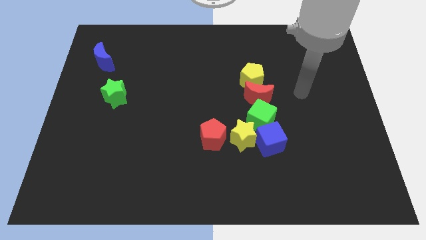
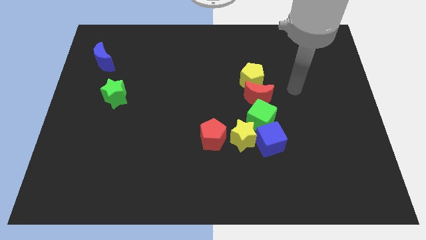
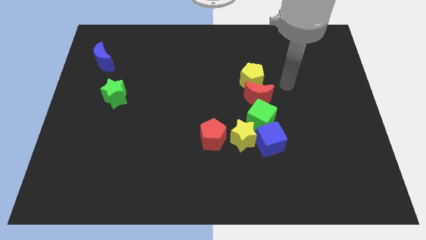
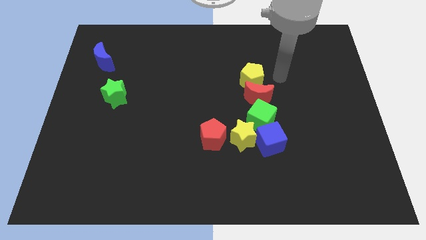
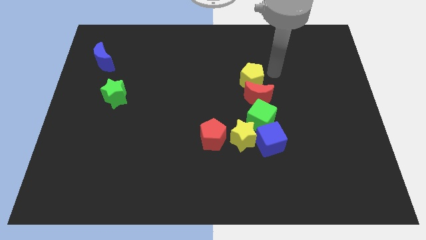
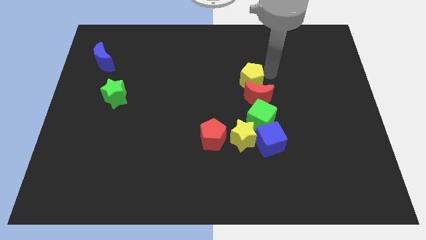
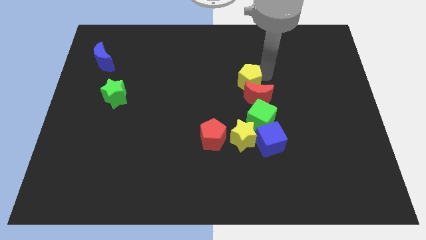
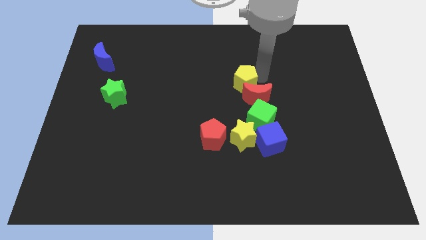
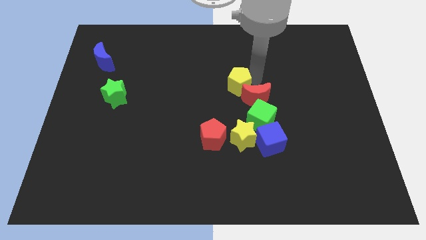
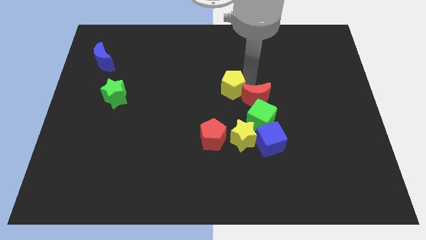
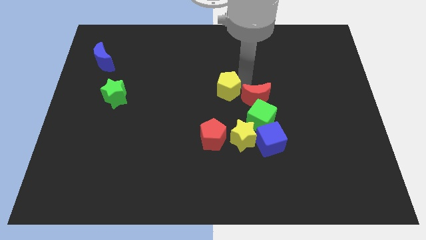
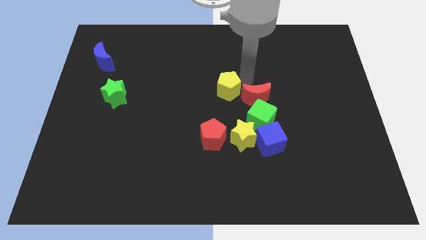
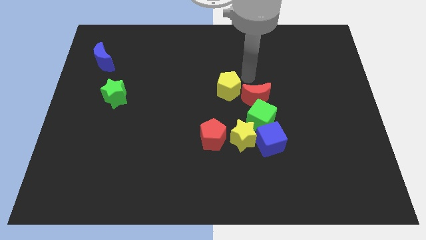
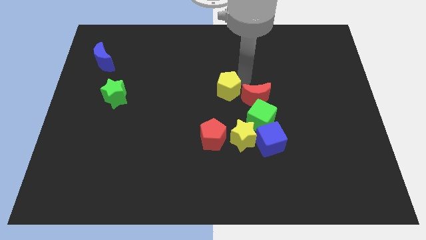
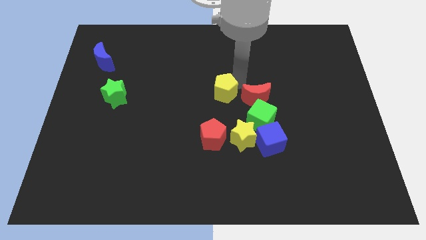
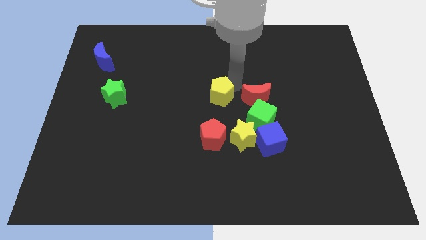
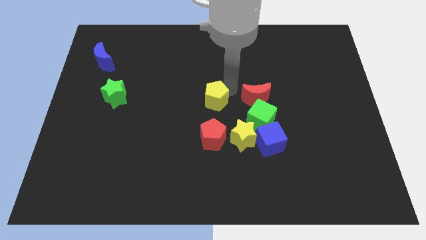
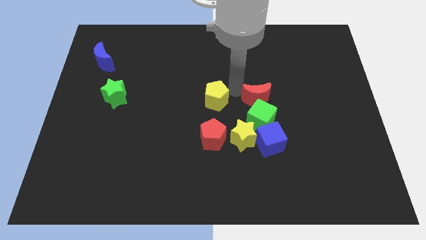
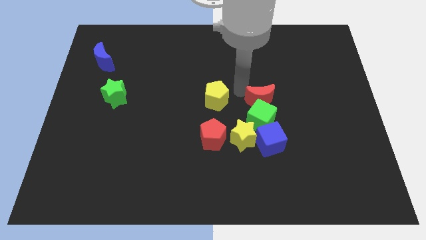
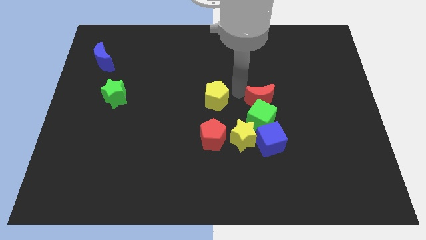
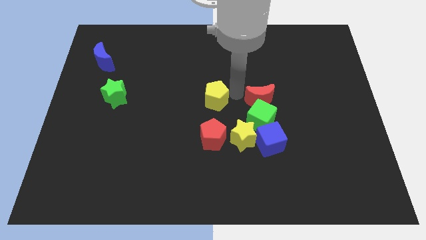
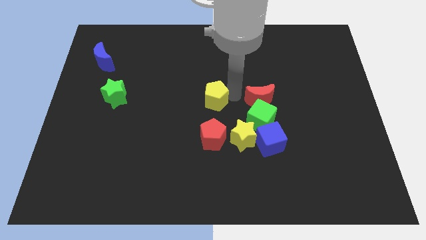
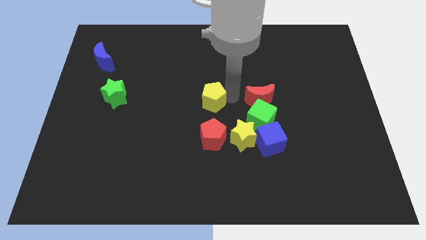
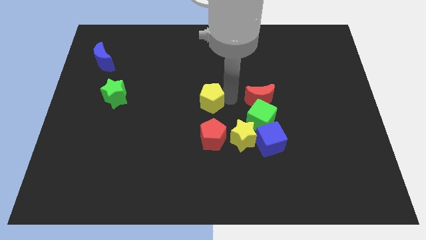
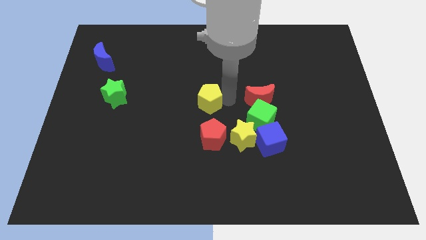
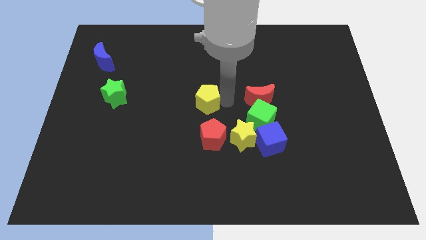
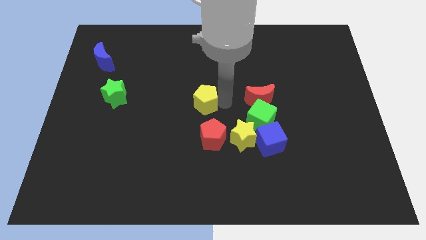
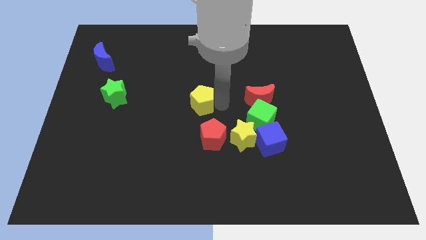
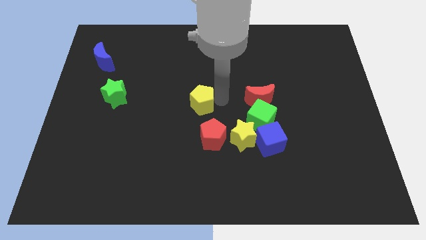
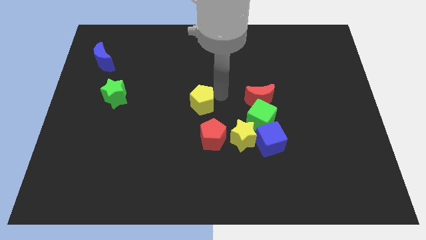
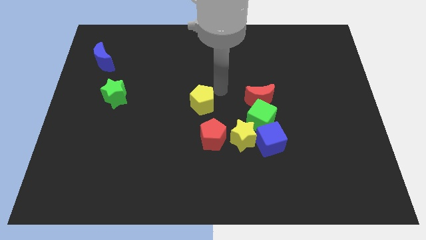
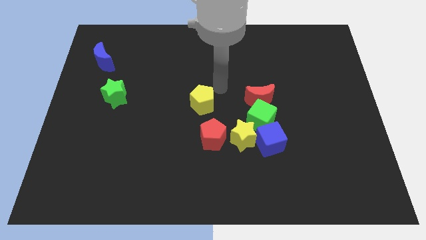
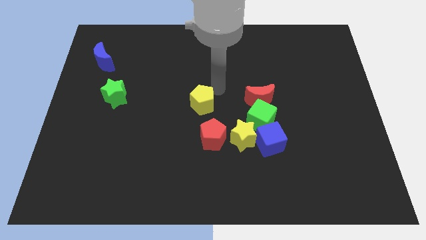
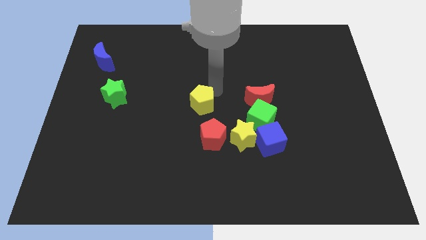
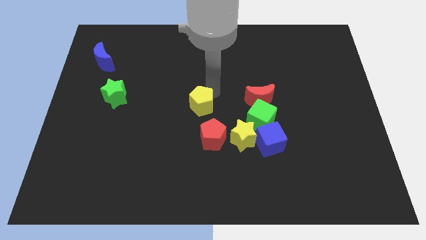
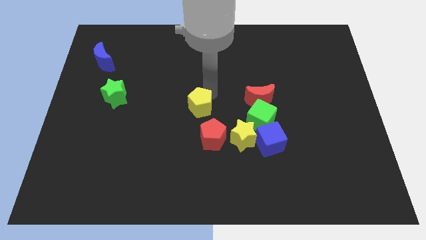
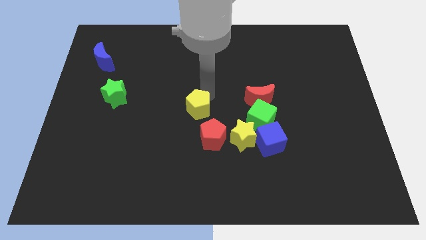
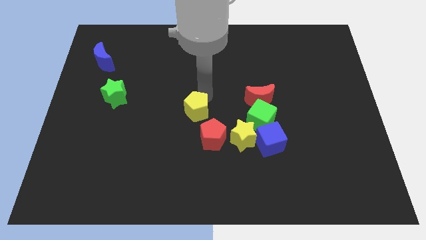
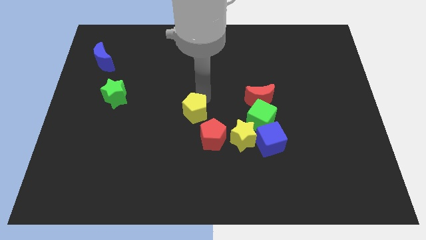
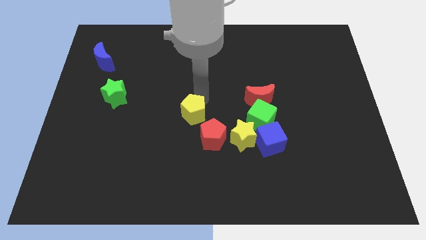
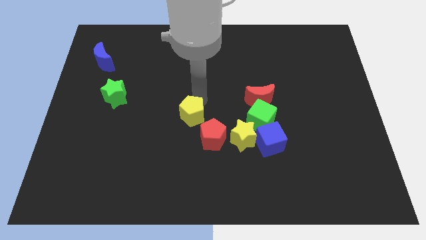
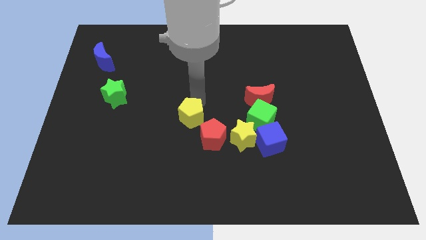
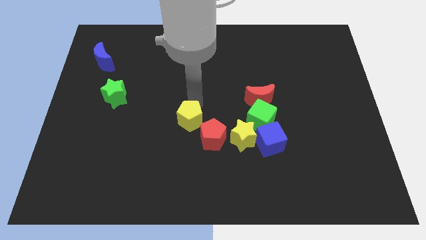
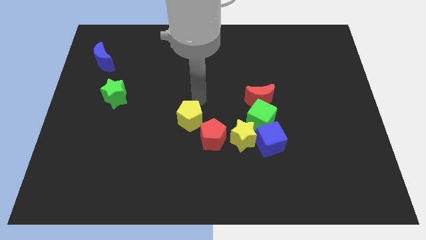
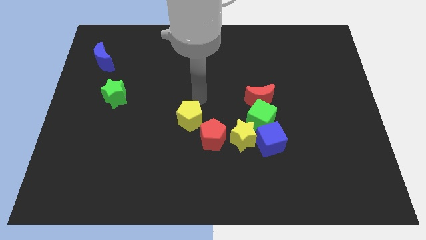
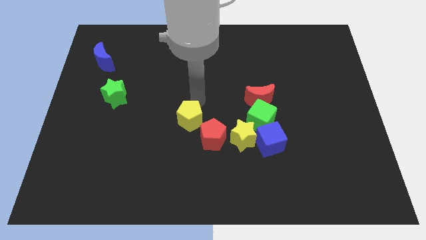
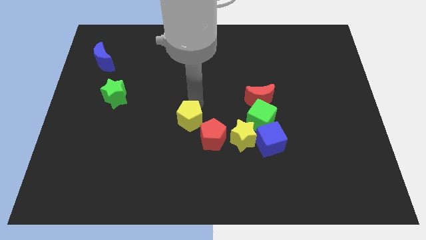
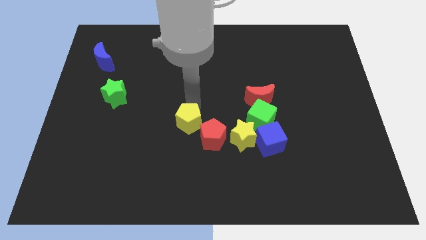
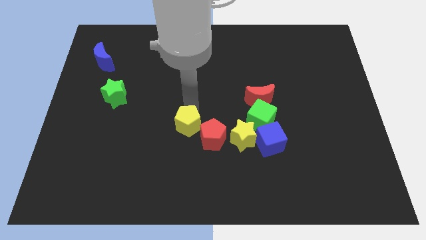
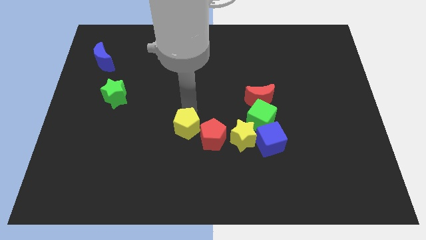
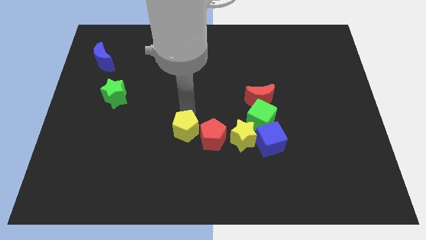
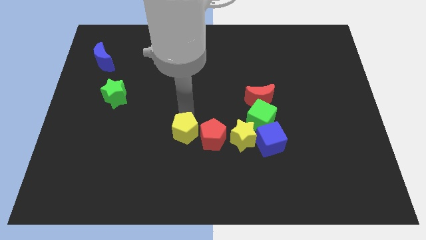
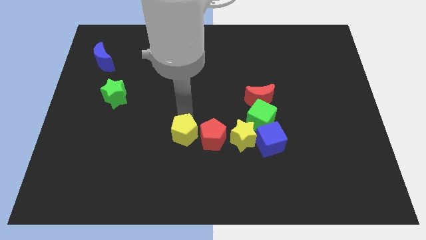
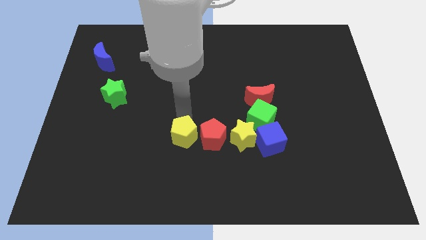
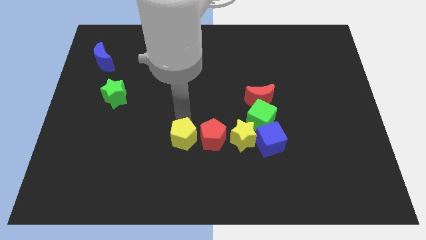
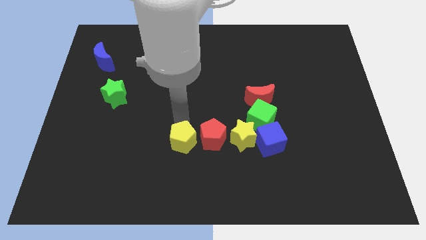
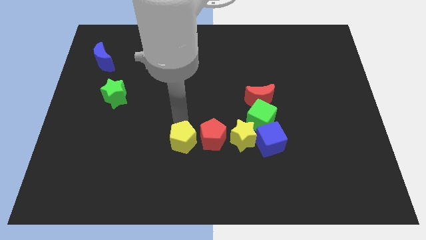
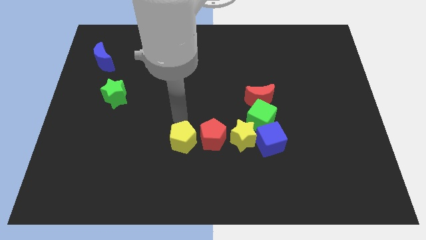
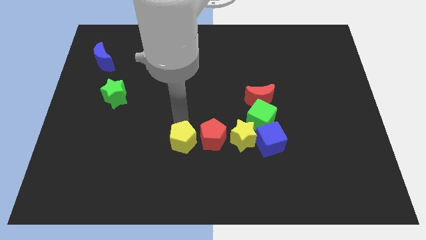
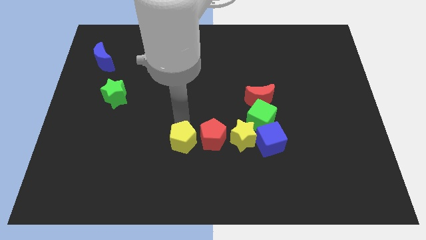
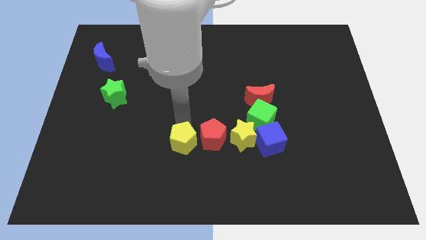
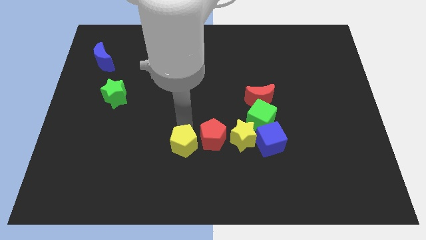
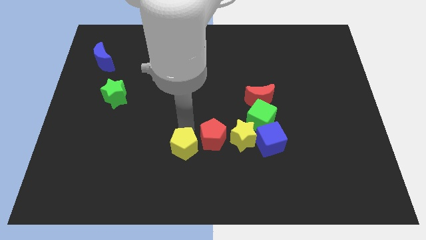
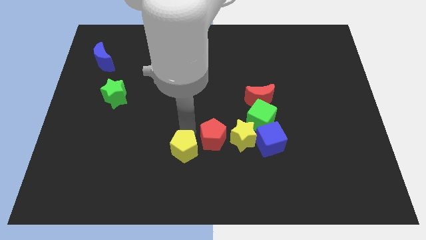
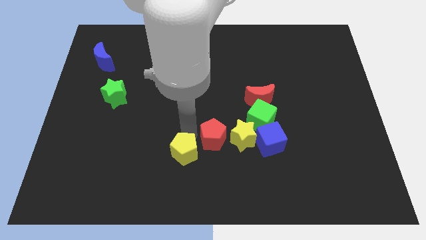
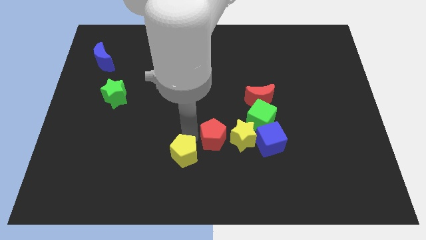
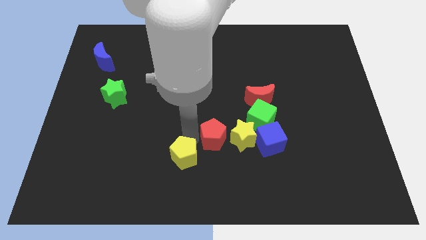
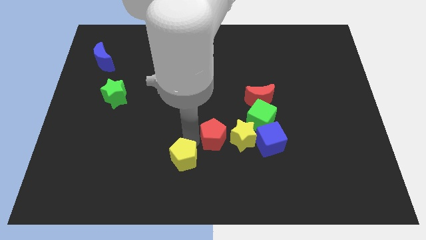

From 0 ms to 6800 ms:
put the yellow pentagon to the bottom

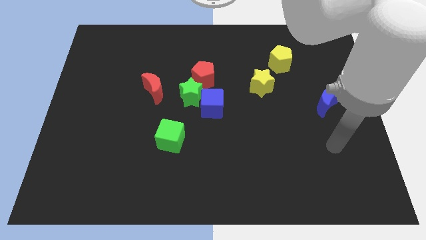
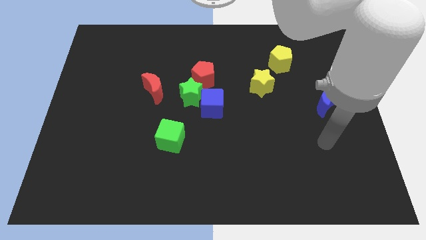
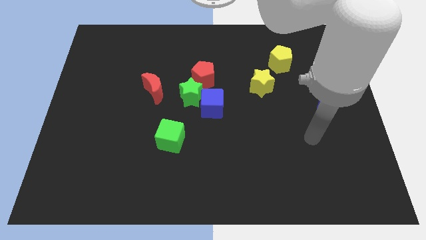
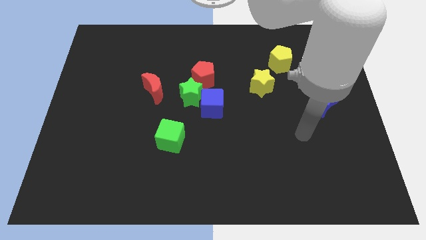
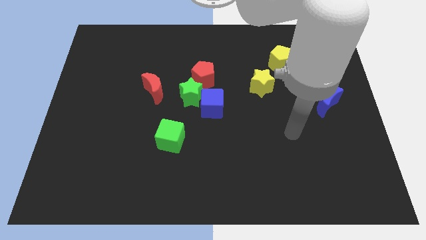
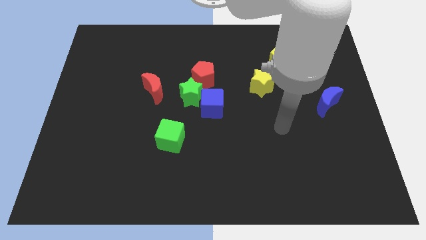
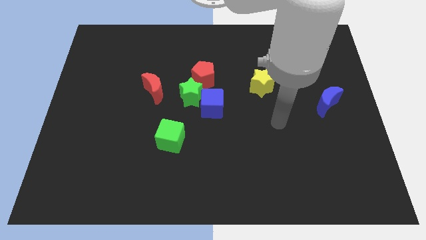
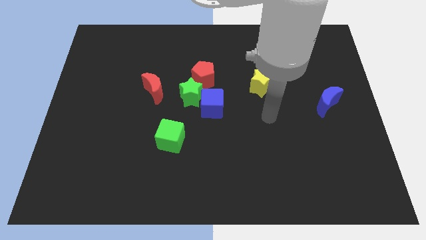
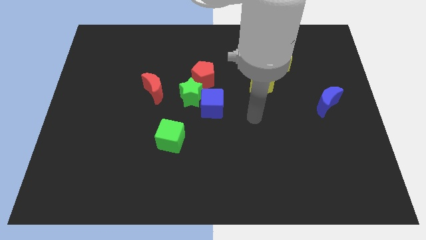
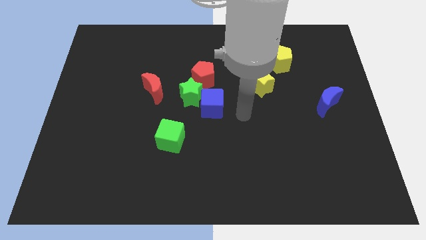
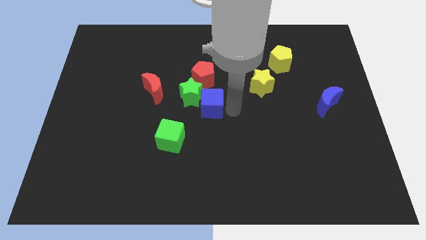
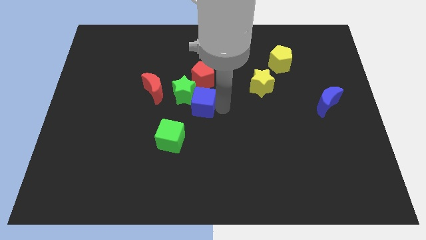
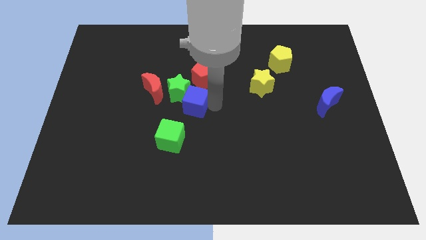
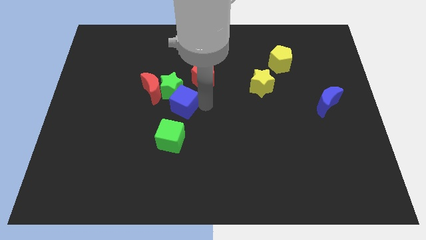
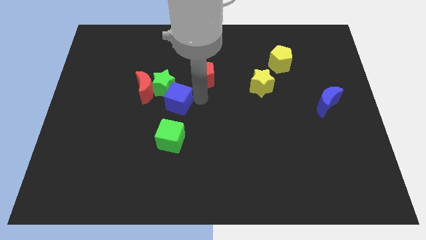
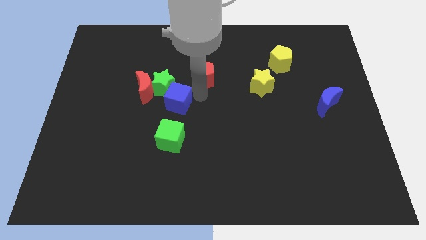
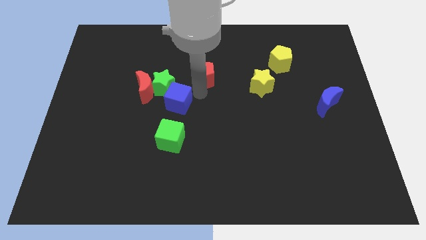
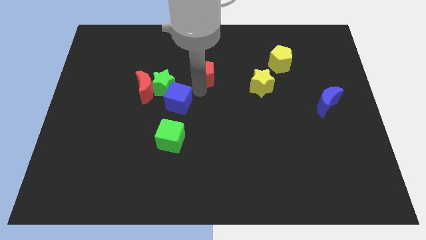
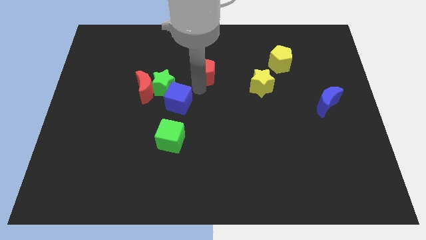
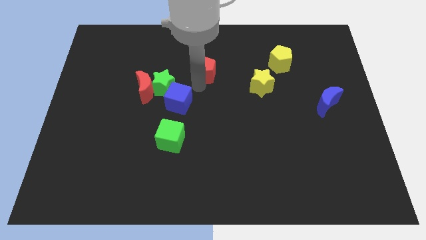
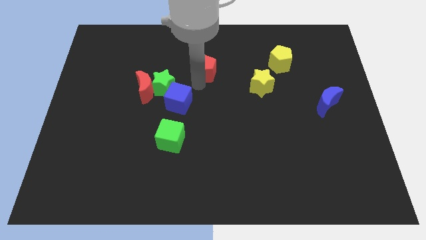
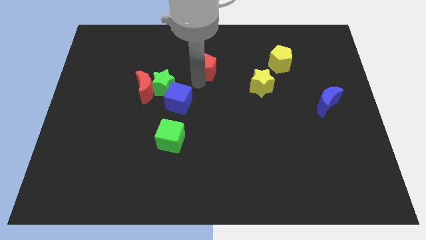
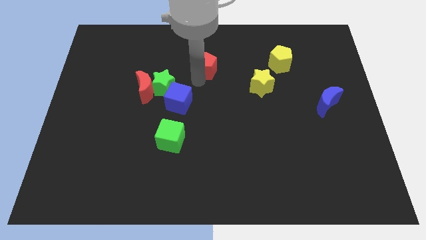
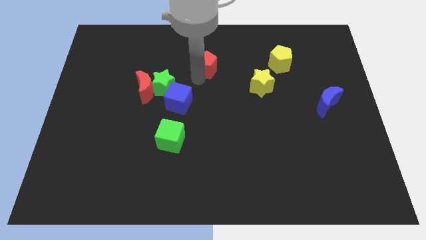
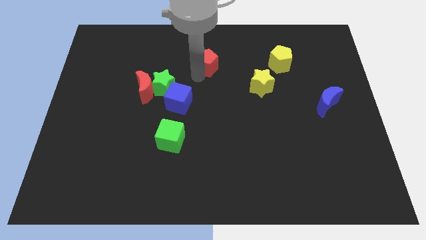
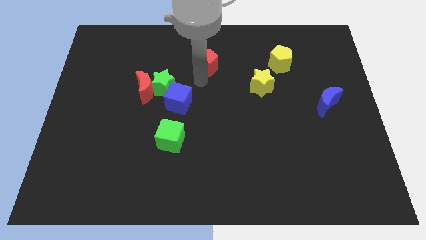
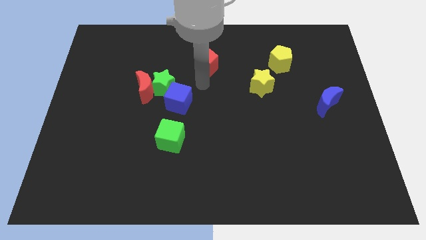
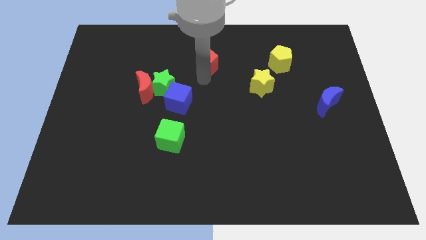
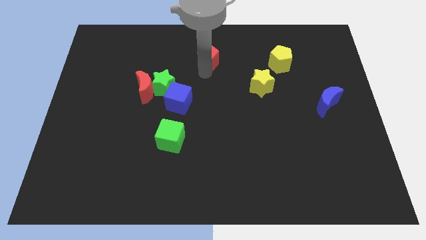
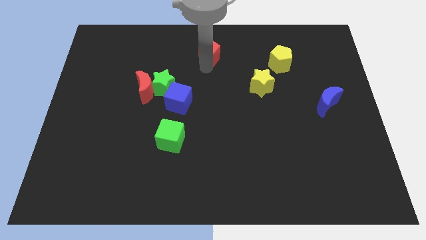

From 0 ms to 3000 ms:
push the red pentagon to the top side
